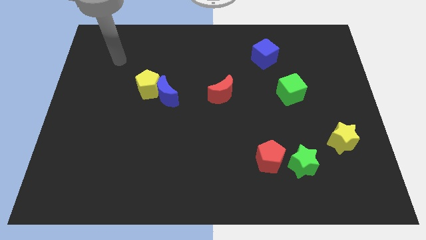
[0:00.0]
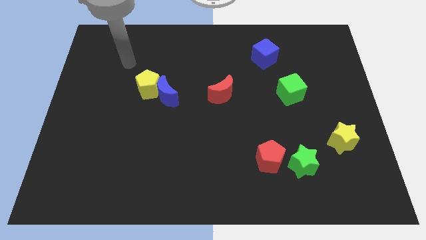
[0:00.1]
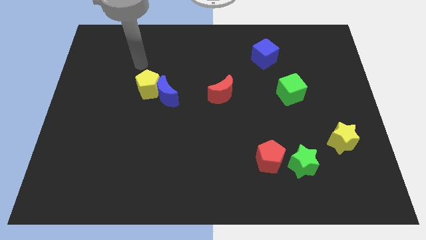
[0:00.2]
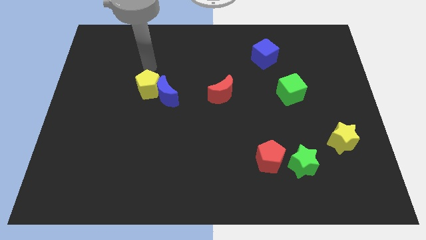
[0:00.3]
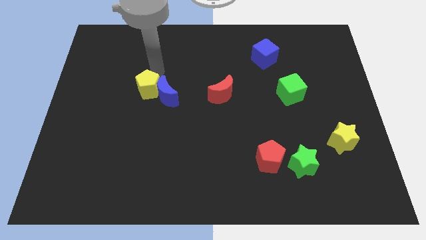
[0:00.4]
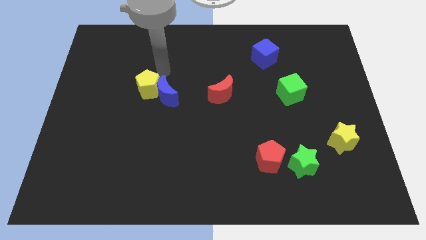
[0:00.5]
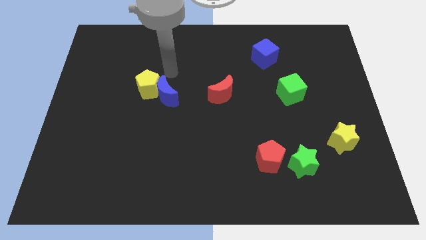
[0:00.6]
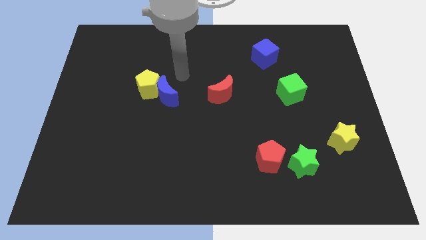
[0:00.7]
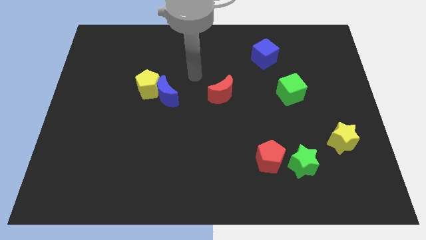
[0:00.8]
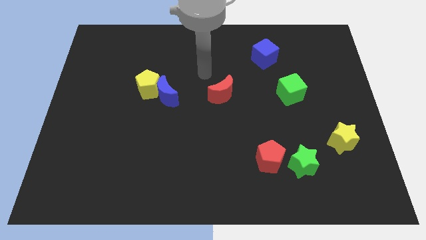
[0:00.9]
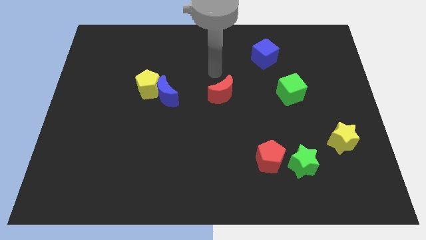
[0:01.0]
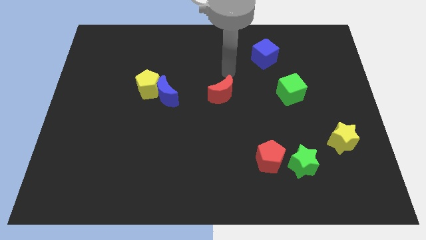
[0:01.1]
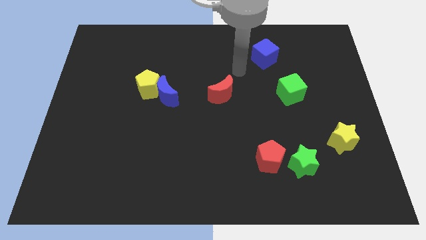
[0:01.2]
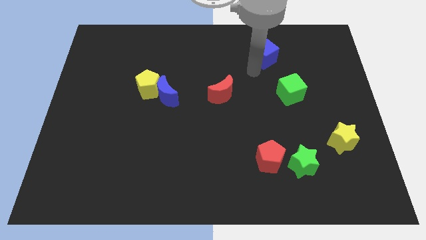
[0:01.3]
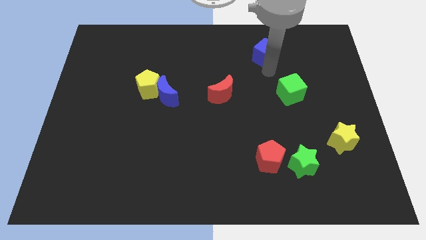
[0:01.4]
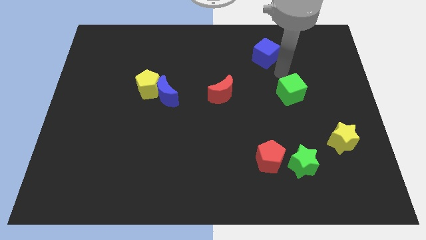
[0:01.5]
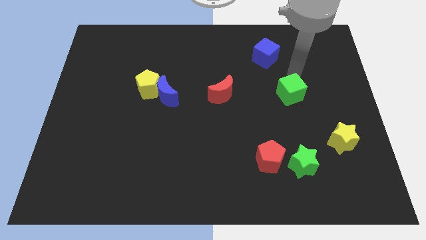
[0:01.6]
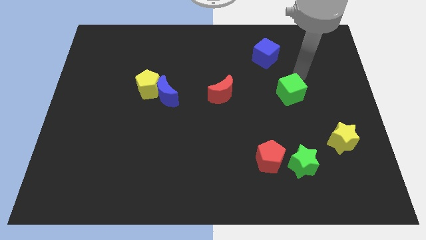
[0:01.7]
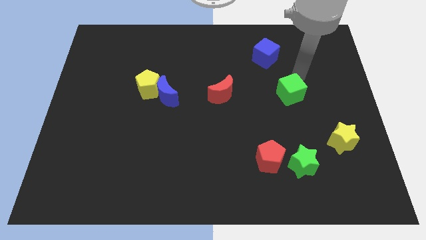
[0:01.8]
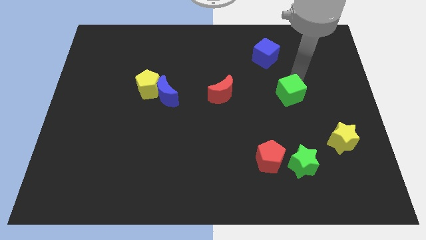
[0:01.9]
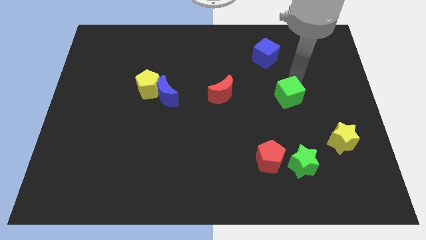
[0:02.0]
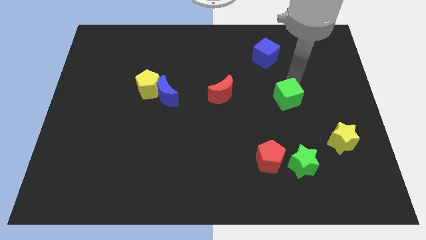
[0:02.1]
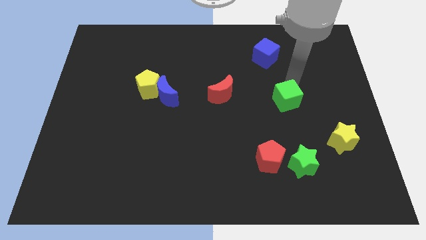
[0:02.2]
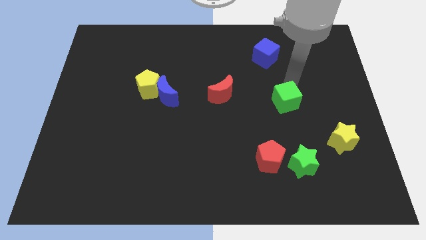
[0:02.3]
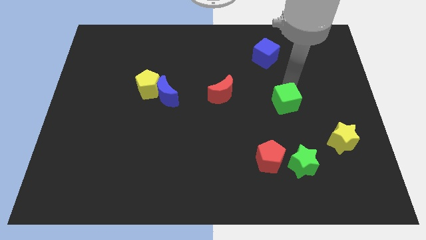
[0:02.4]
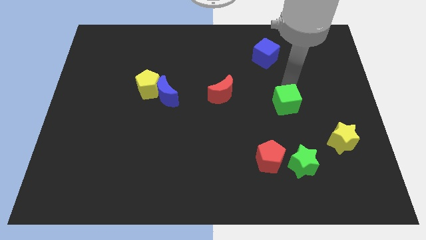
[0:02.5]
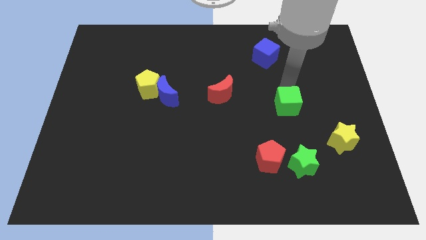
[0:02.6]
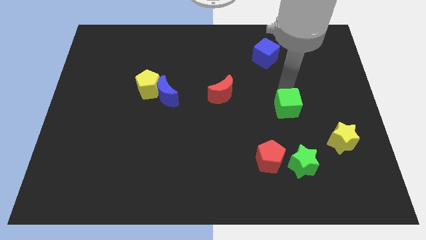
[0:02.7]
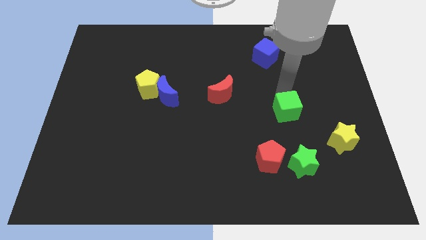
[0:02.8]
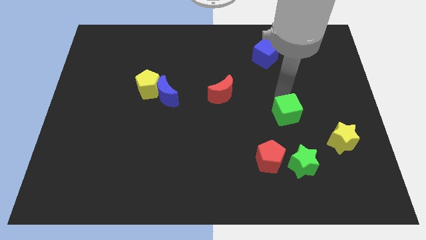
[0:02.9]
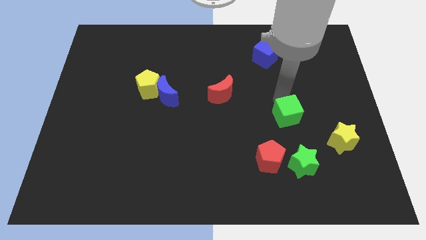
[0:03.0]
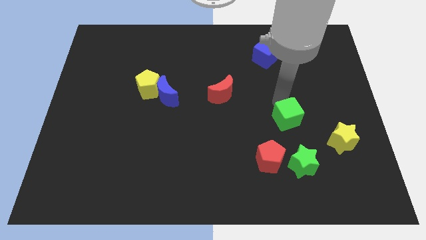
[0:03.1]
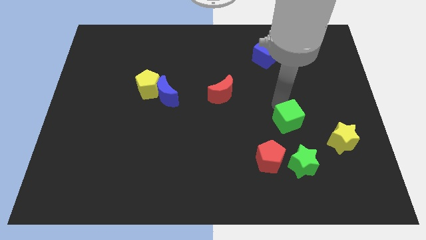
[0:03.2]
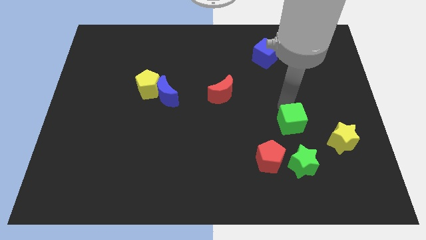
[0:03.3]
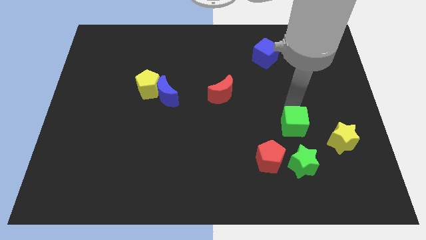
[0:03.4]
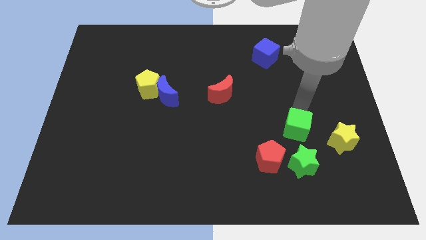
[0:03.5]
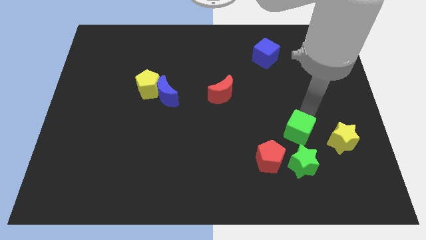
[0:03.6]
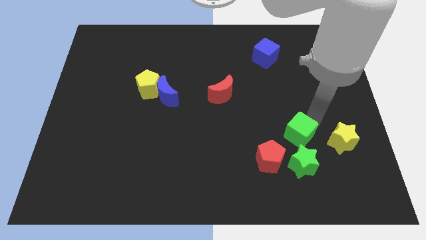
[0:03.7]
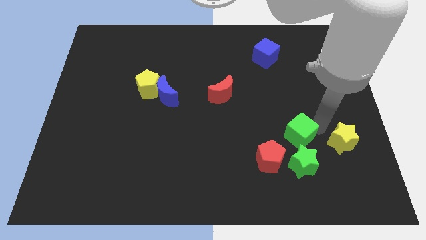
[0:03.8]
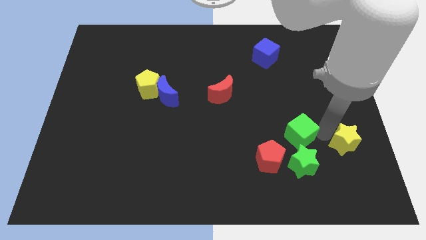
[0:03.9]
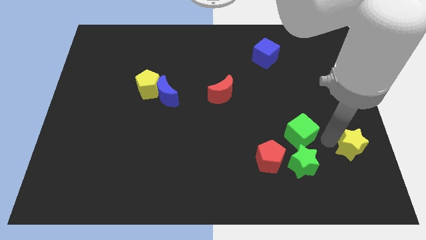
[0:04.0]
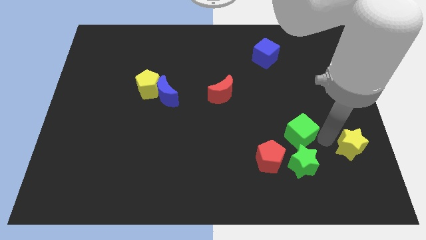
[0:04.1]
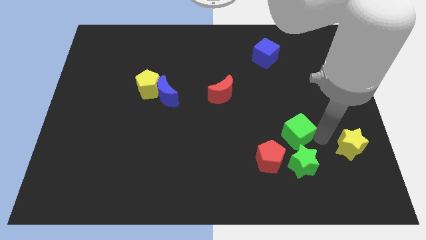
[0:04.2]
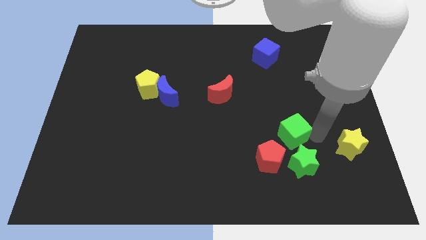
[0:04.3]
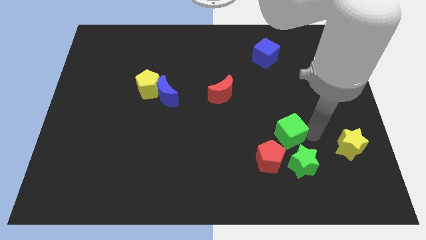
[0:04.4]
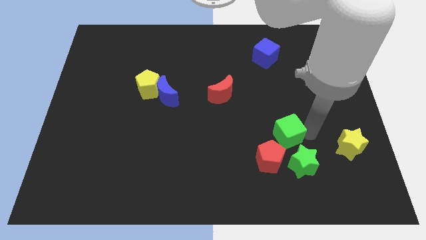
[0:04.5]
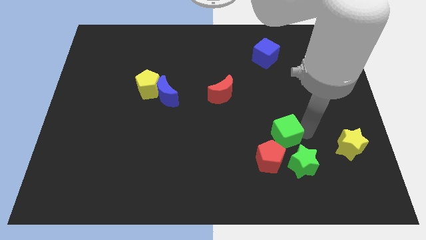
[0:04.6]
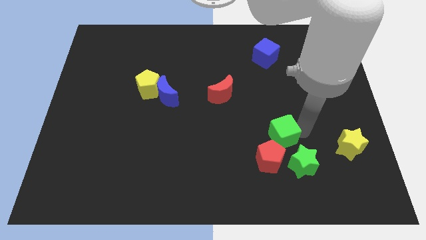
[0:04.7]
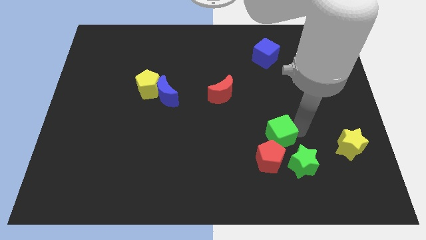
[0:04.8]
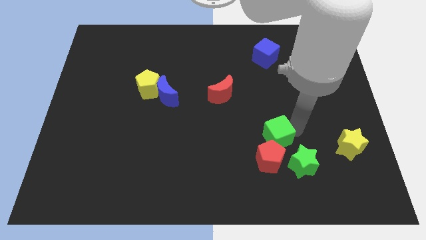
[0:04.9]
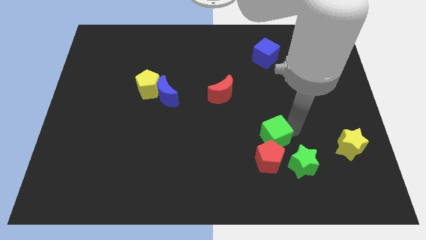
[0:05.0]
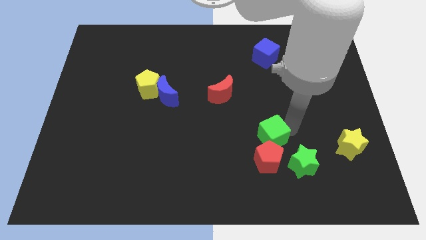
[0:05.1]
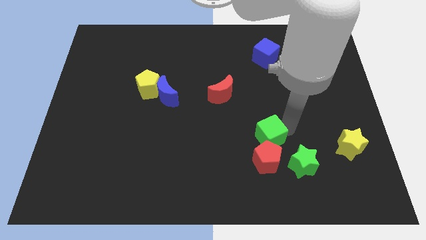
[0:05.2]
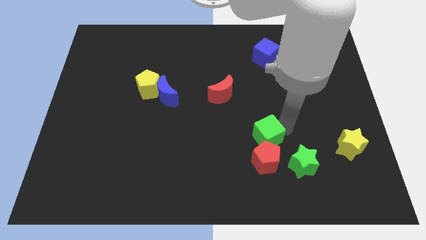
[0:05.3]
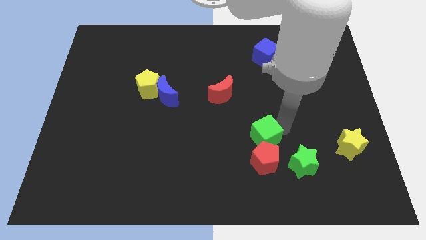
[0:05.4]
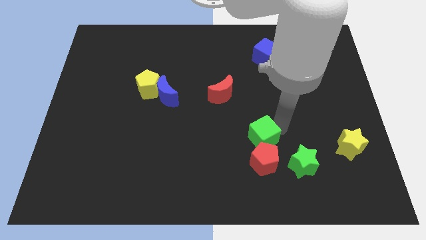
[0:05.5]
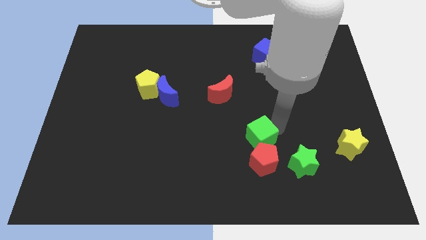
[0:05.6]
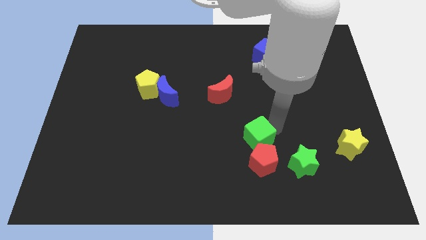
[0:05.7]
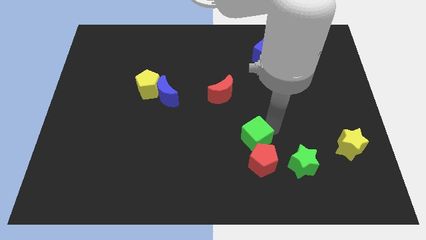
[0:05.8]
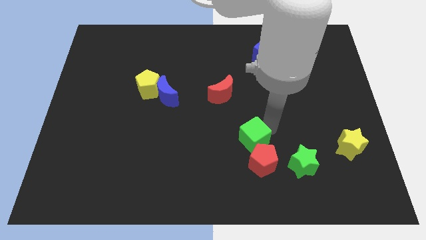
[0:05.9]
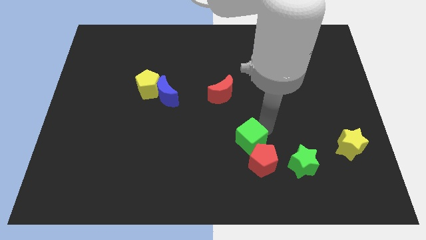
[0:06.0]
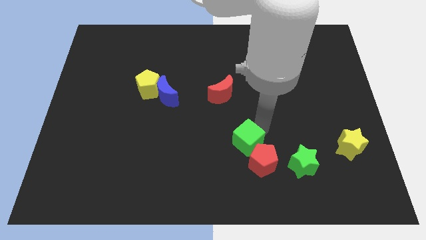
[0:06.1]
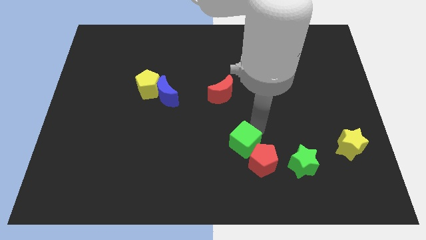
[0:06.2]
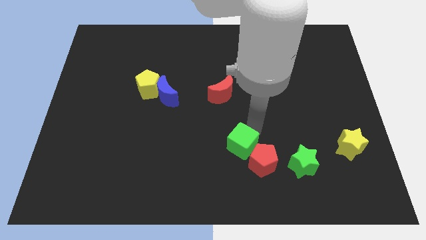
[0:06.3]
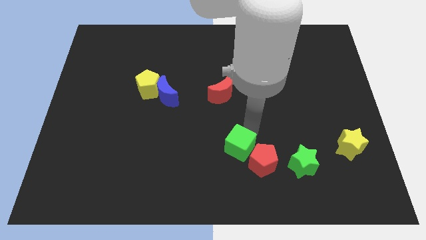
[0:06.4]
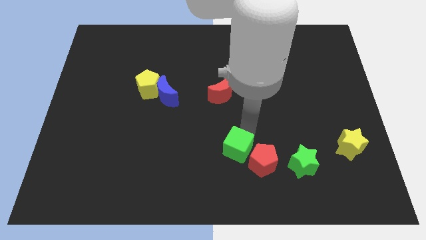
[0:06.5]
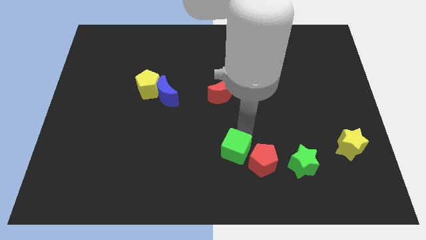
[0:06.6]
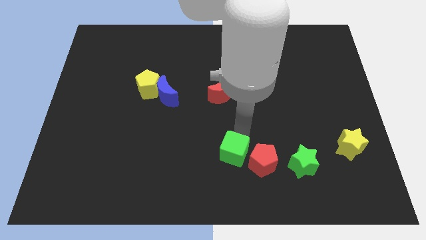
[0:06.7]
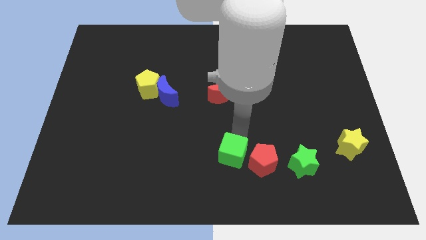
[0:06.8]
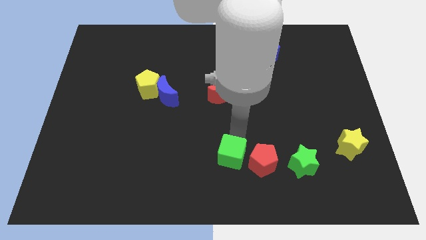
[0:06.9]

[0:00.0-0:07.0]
push the green cube to the bottom
